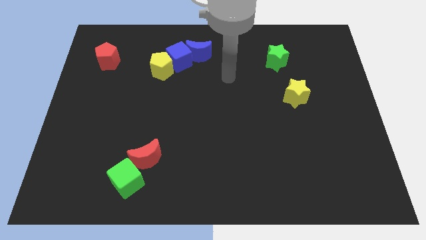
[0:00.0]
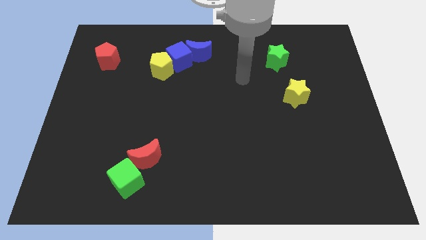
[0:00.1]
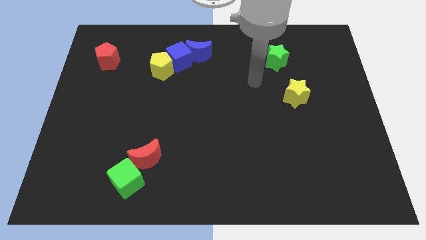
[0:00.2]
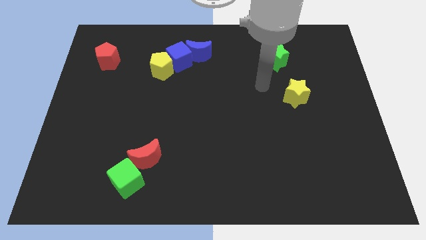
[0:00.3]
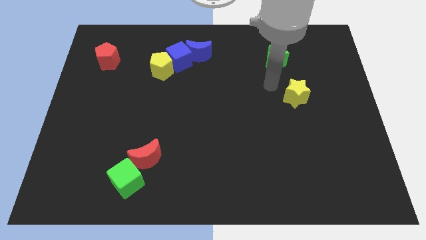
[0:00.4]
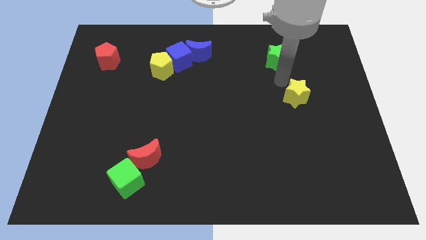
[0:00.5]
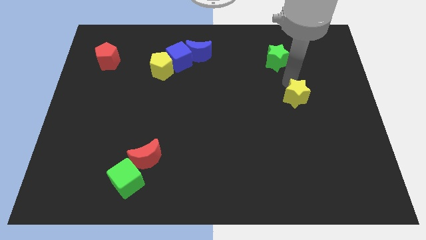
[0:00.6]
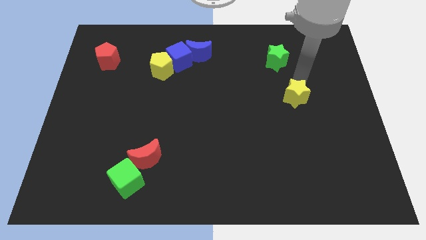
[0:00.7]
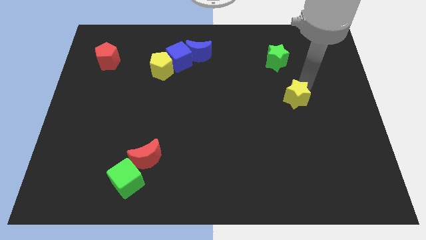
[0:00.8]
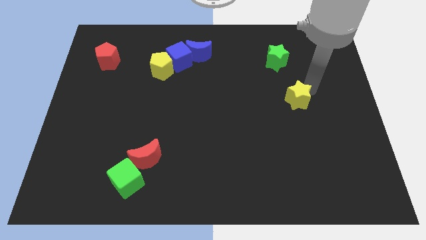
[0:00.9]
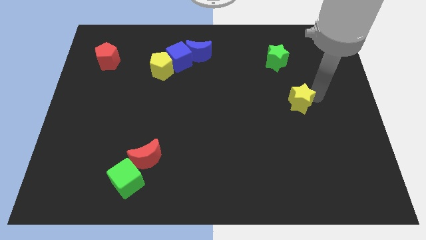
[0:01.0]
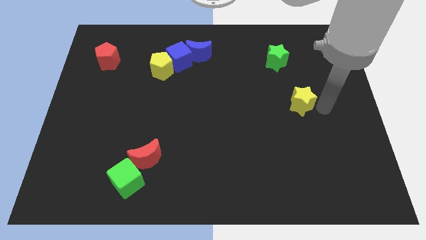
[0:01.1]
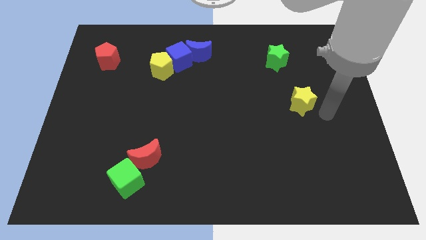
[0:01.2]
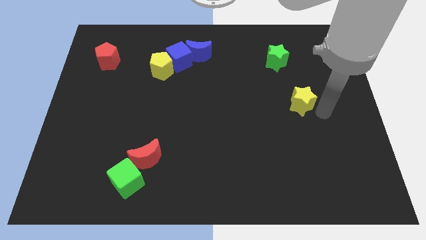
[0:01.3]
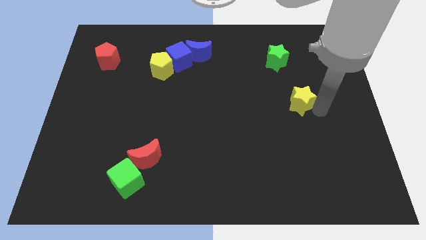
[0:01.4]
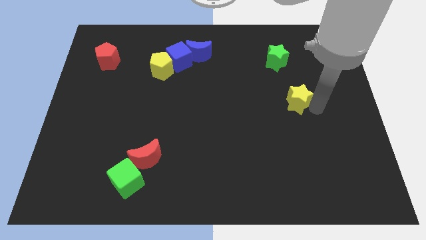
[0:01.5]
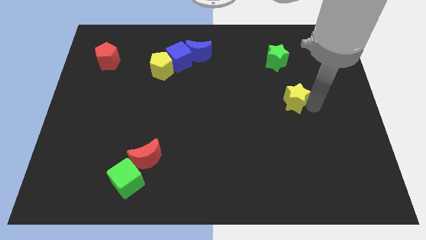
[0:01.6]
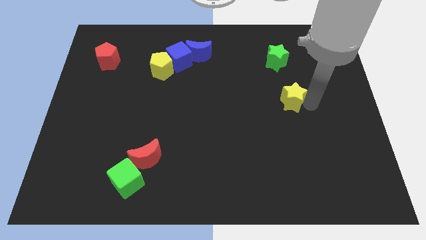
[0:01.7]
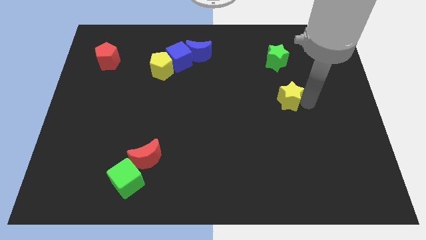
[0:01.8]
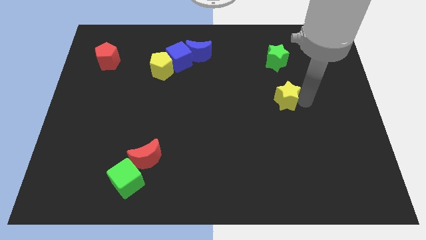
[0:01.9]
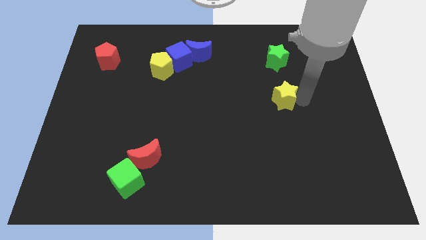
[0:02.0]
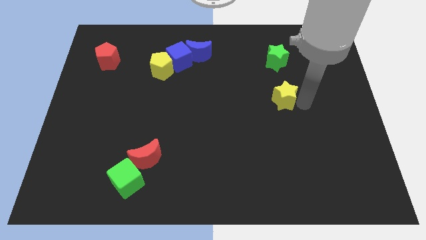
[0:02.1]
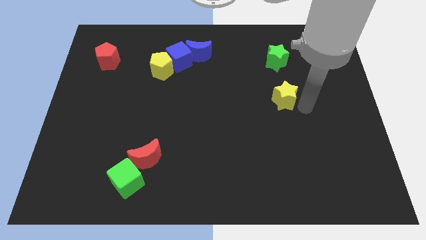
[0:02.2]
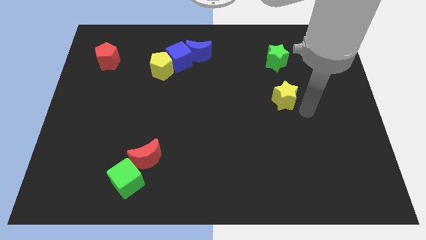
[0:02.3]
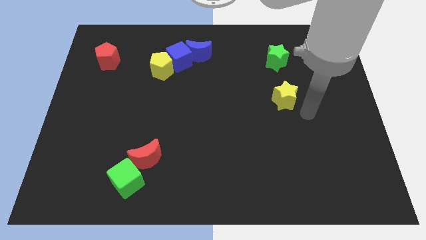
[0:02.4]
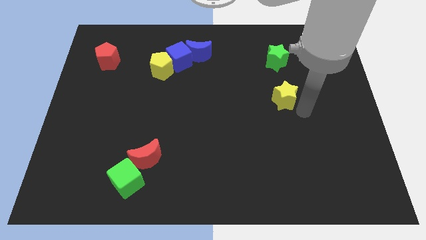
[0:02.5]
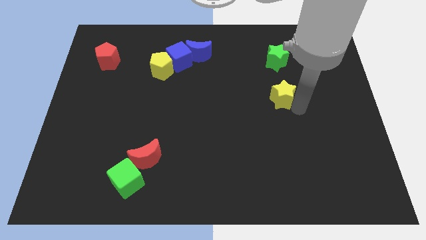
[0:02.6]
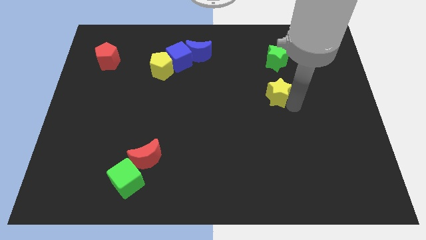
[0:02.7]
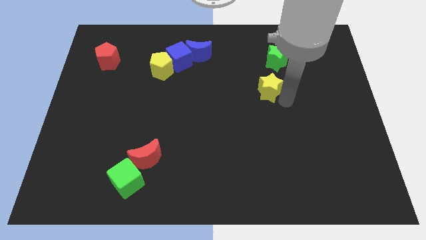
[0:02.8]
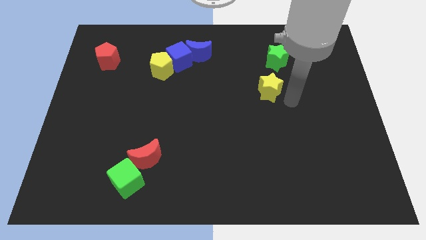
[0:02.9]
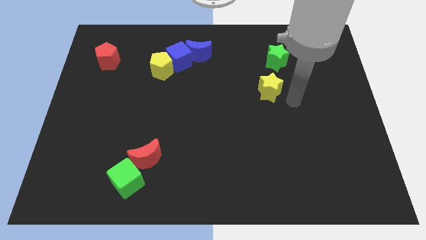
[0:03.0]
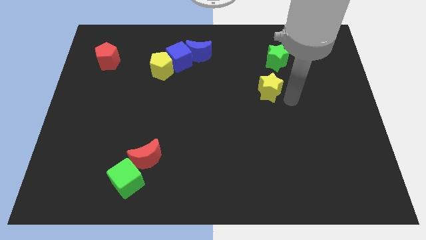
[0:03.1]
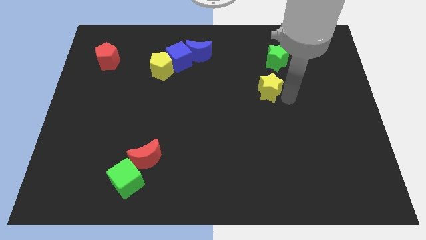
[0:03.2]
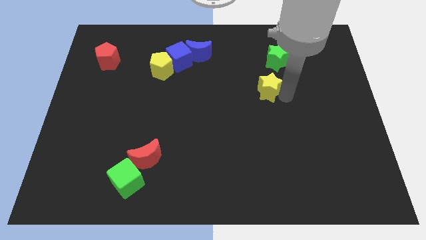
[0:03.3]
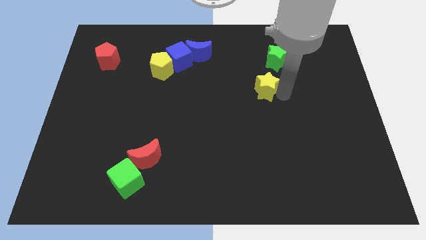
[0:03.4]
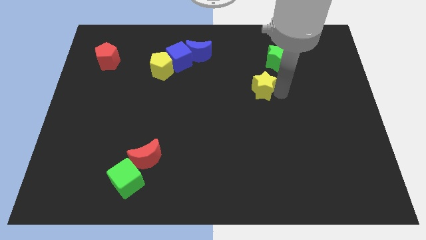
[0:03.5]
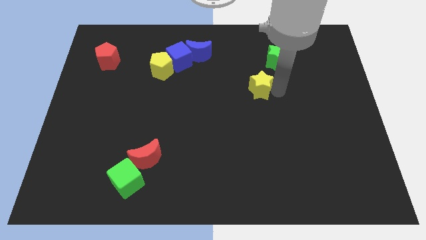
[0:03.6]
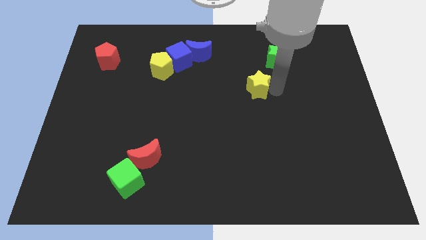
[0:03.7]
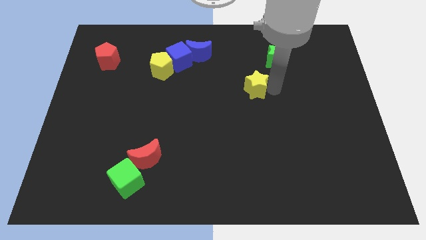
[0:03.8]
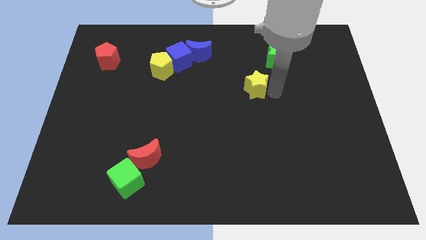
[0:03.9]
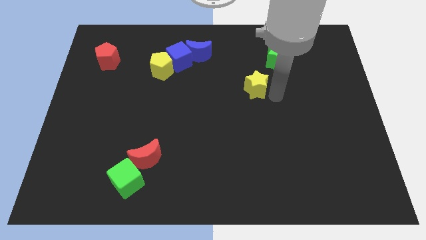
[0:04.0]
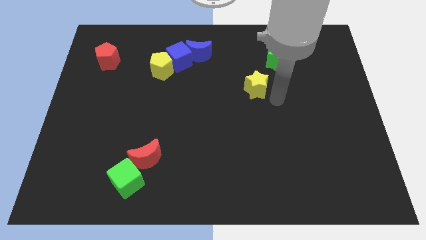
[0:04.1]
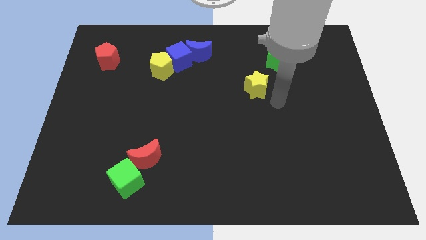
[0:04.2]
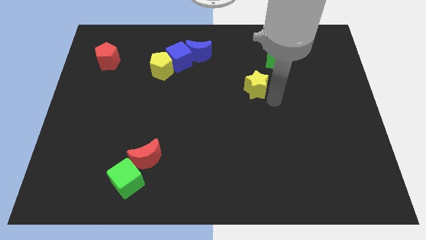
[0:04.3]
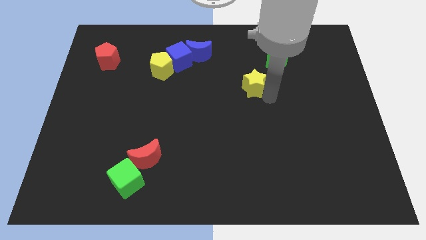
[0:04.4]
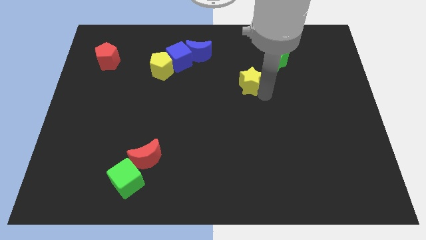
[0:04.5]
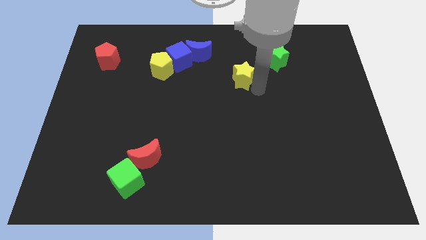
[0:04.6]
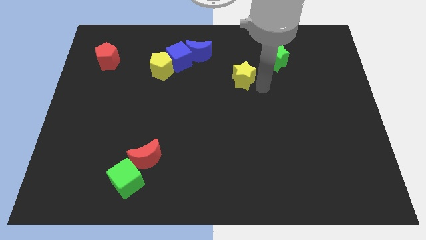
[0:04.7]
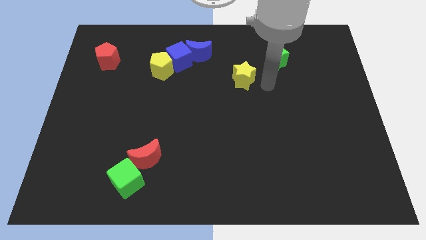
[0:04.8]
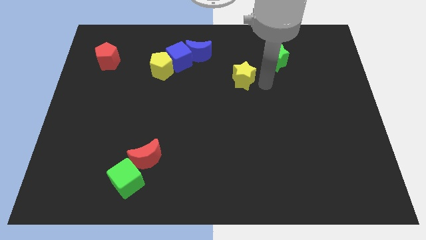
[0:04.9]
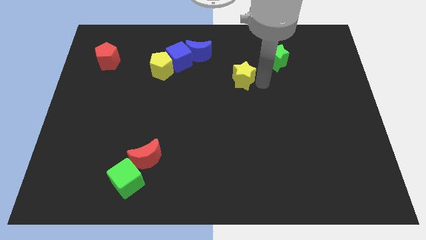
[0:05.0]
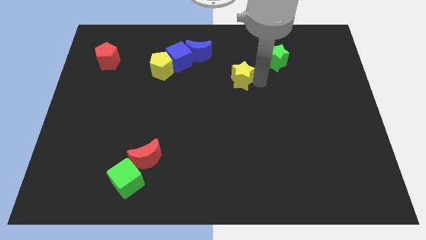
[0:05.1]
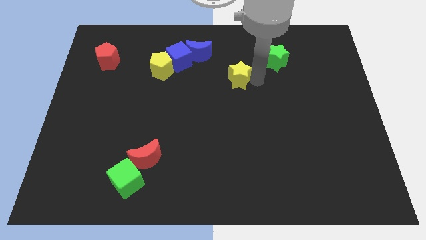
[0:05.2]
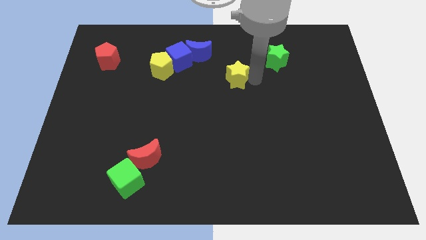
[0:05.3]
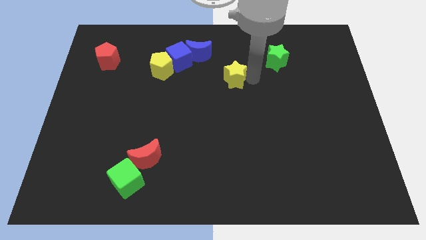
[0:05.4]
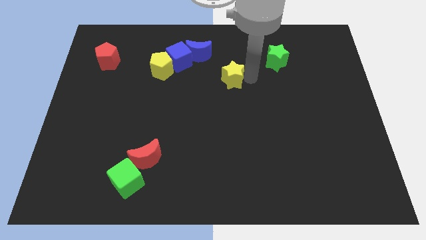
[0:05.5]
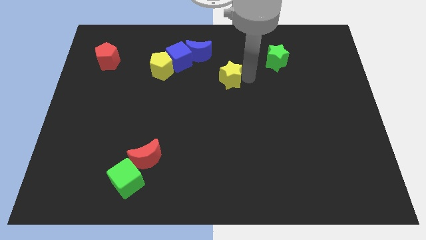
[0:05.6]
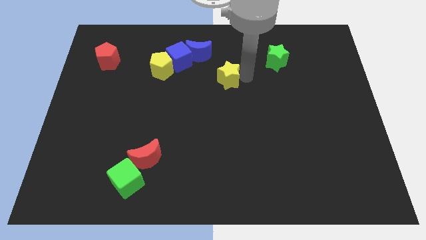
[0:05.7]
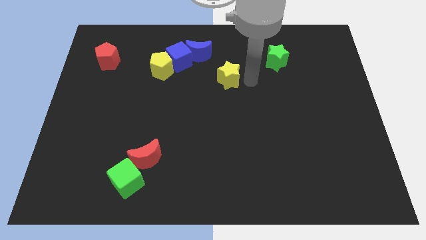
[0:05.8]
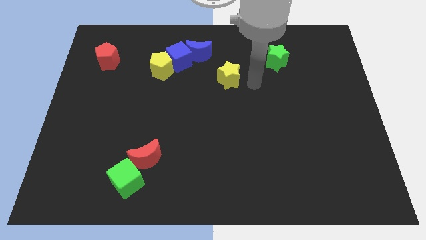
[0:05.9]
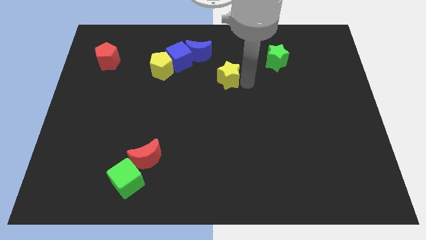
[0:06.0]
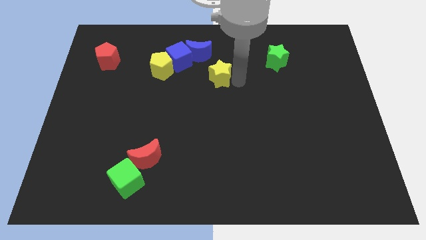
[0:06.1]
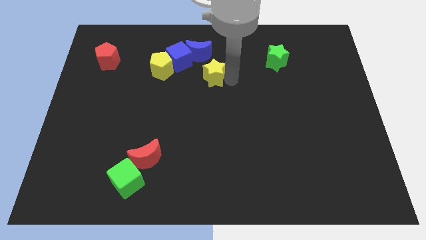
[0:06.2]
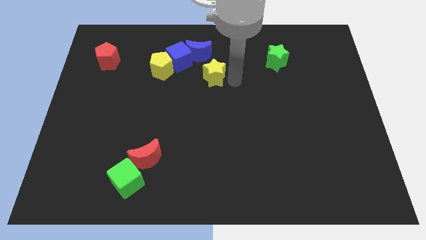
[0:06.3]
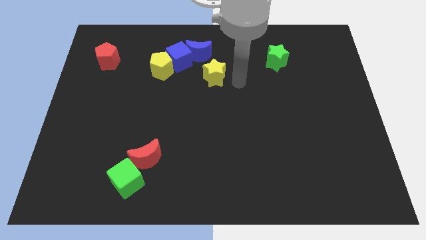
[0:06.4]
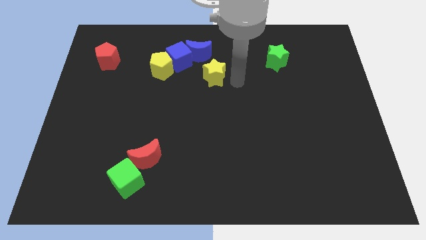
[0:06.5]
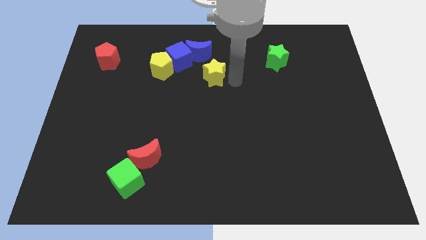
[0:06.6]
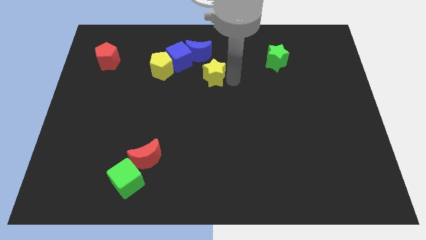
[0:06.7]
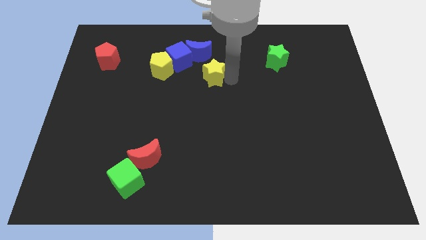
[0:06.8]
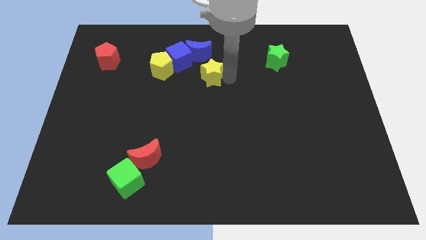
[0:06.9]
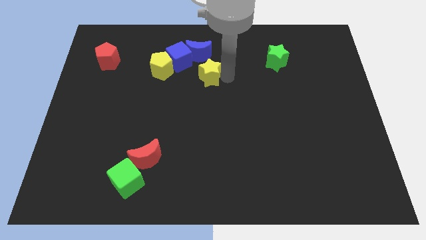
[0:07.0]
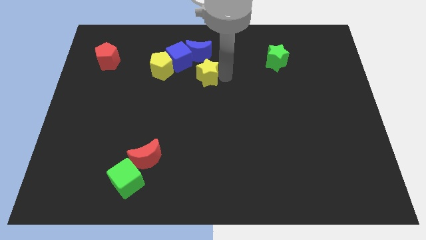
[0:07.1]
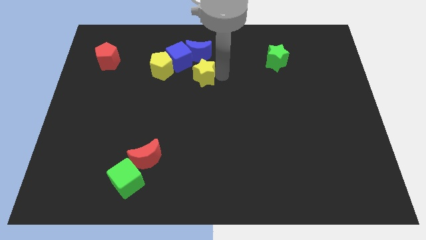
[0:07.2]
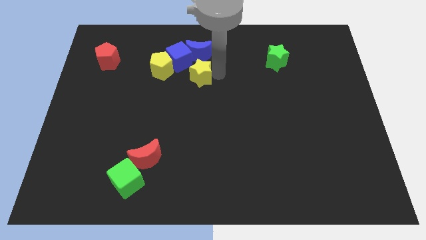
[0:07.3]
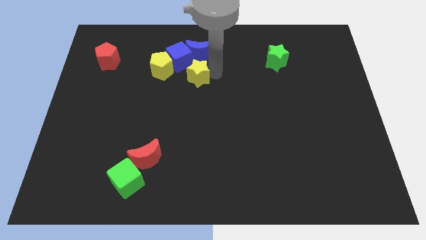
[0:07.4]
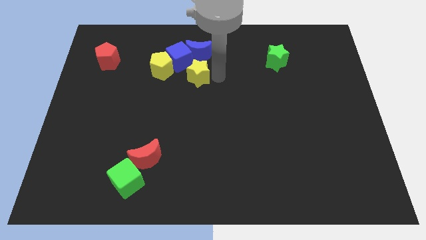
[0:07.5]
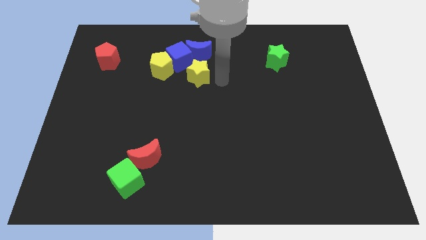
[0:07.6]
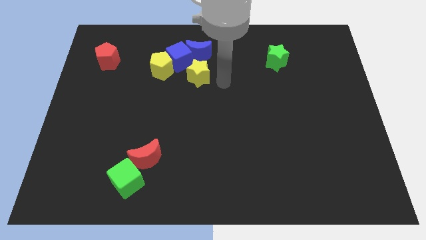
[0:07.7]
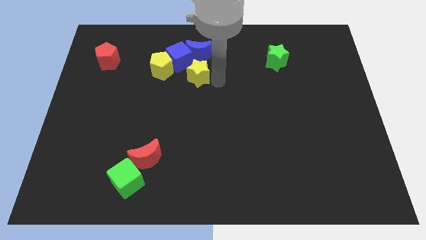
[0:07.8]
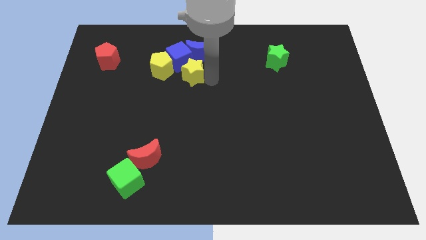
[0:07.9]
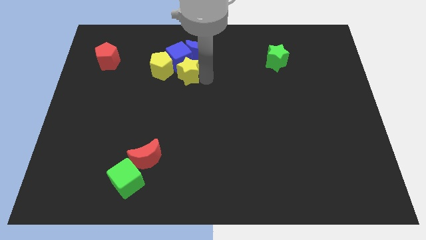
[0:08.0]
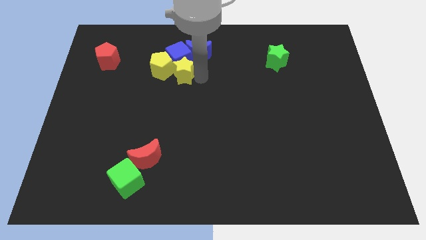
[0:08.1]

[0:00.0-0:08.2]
push the yellow star close to the yellow pentagon
